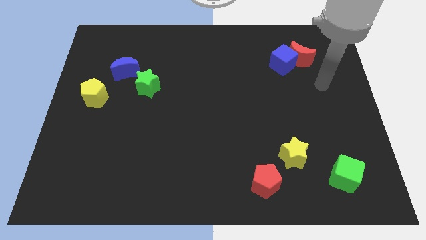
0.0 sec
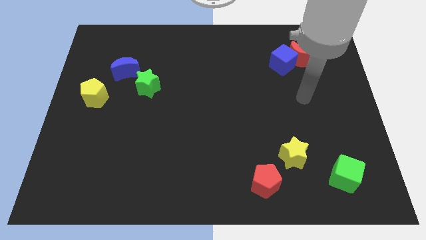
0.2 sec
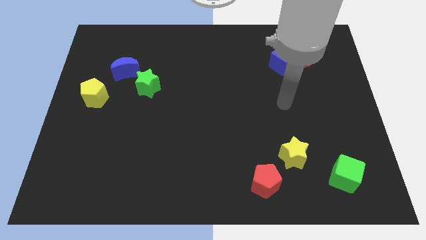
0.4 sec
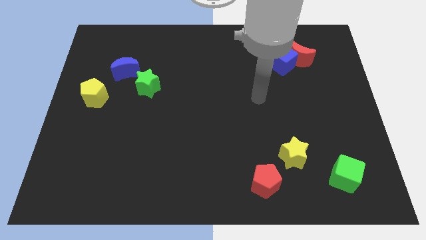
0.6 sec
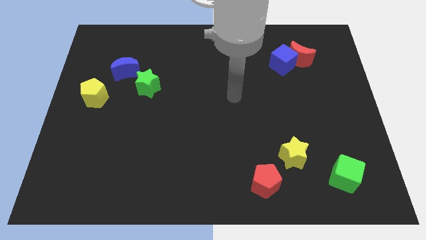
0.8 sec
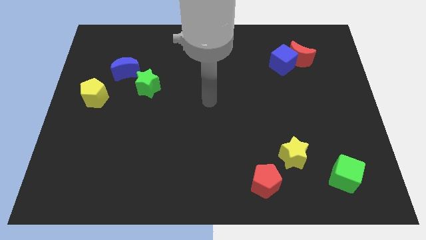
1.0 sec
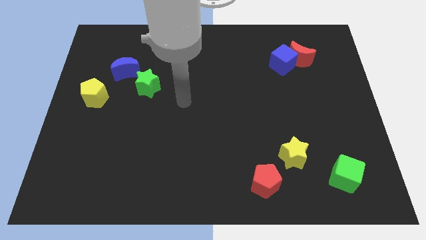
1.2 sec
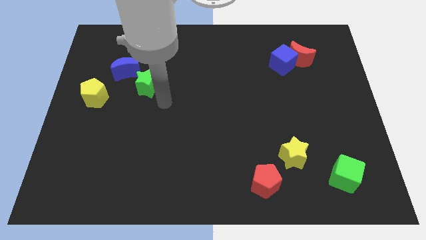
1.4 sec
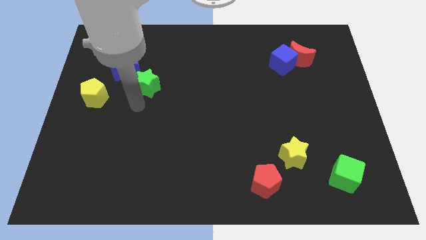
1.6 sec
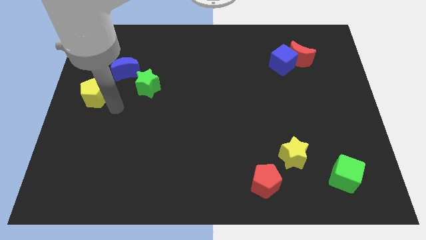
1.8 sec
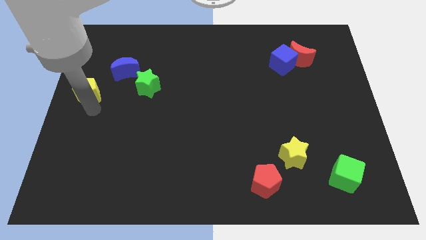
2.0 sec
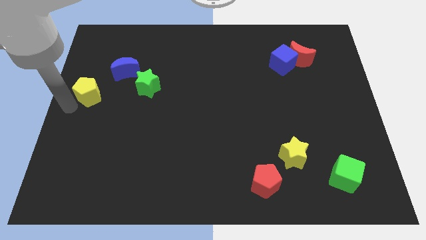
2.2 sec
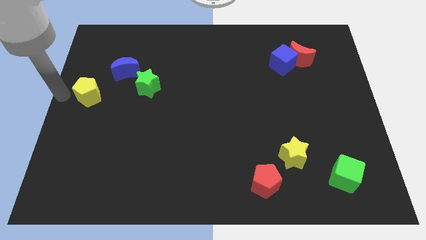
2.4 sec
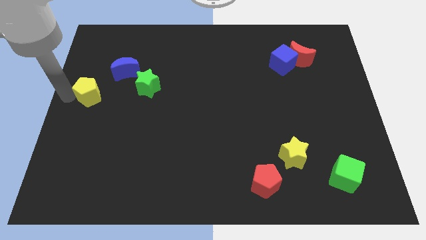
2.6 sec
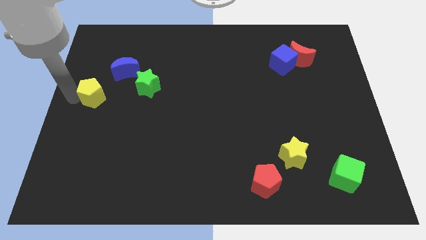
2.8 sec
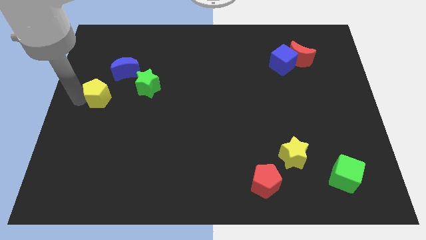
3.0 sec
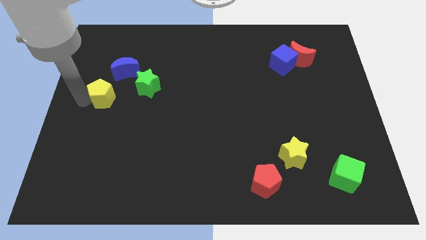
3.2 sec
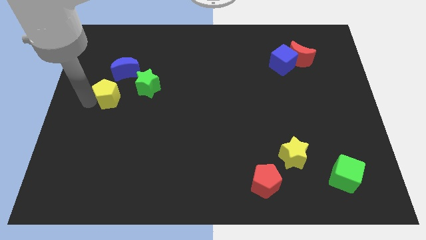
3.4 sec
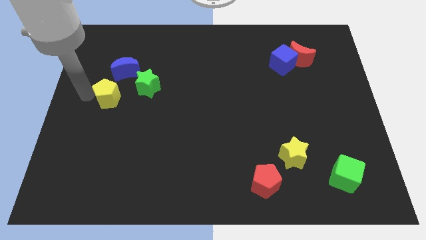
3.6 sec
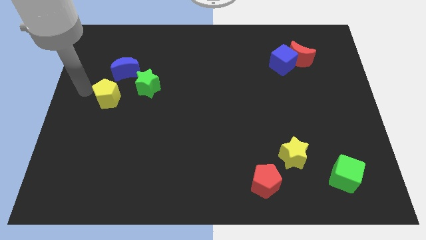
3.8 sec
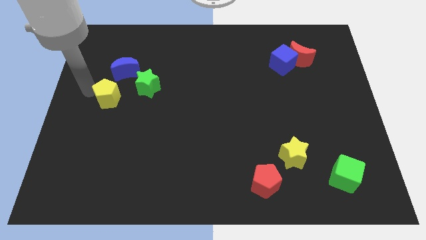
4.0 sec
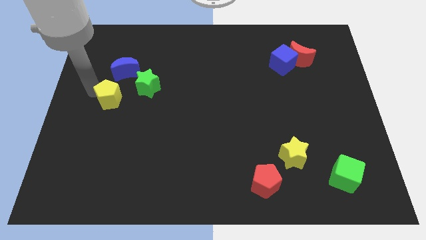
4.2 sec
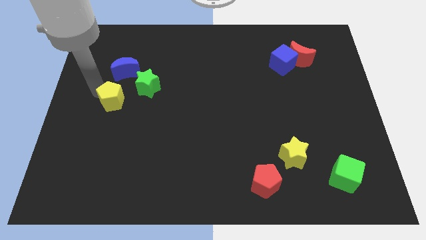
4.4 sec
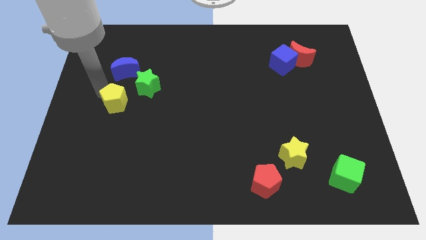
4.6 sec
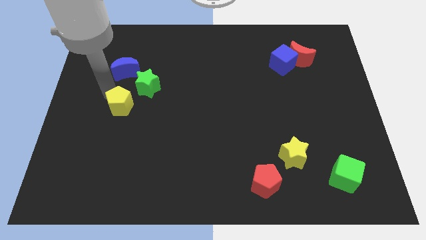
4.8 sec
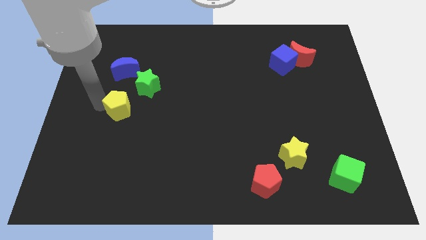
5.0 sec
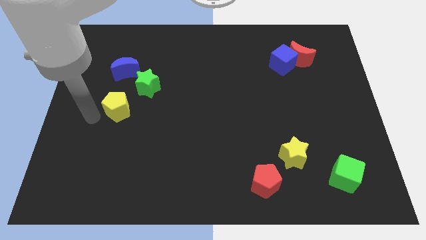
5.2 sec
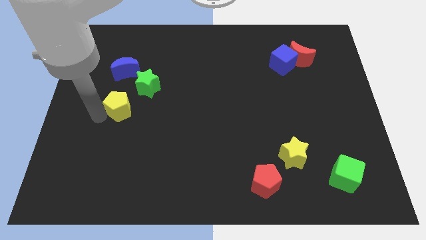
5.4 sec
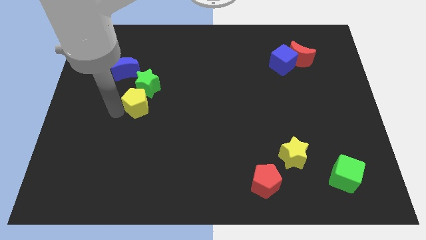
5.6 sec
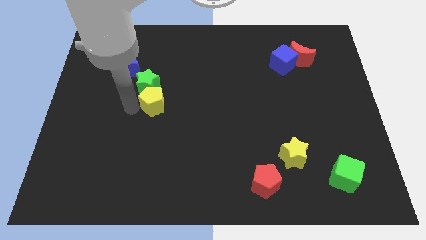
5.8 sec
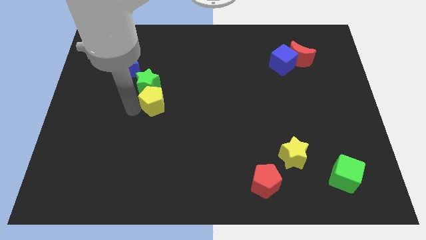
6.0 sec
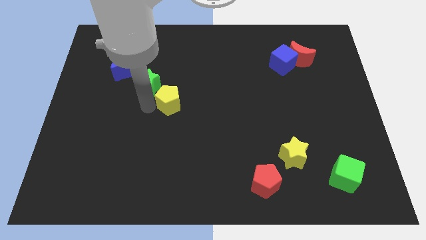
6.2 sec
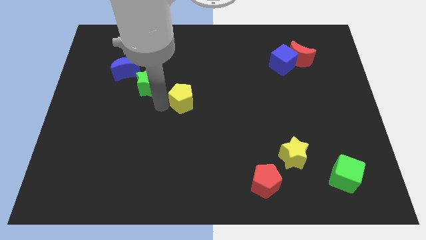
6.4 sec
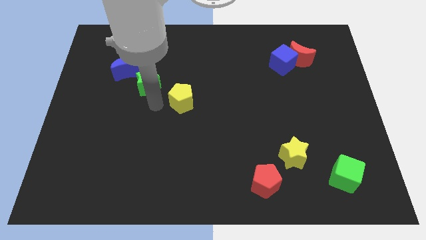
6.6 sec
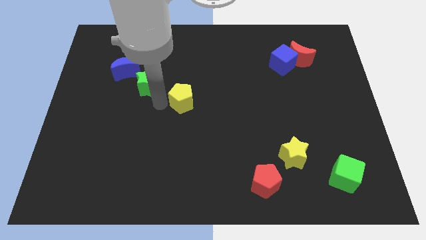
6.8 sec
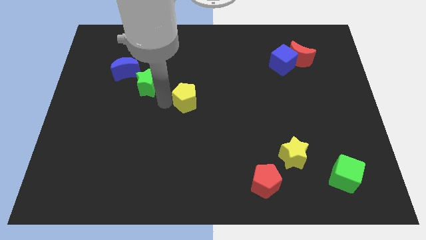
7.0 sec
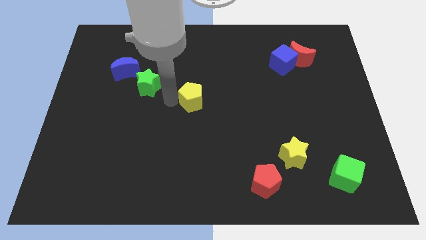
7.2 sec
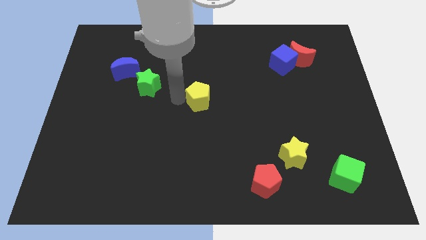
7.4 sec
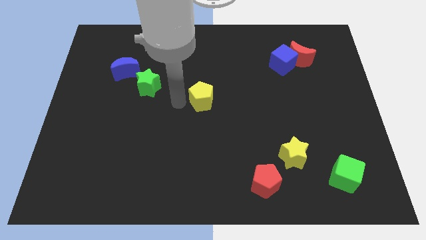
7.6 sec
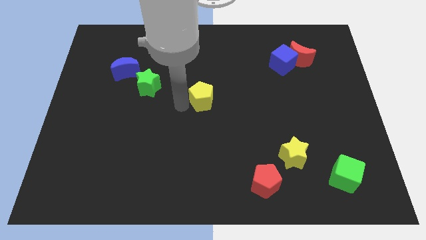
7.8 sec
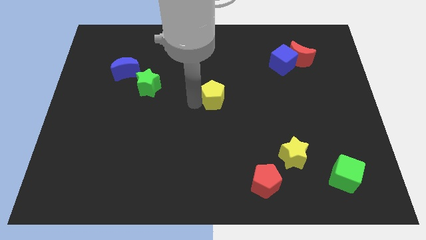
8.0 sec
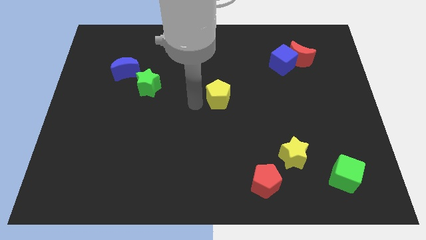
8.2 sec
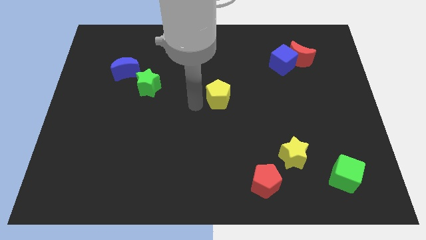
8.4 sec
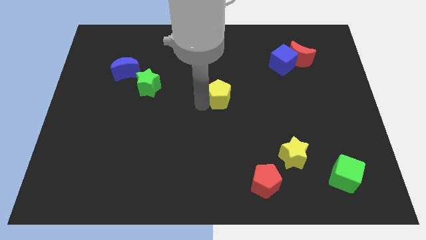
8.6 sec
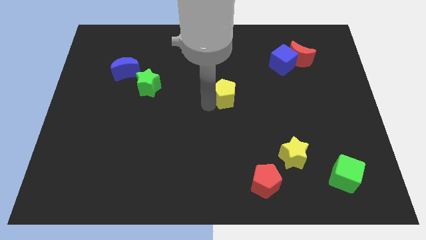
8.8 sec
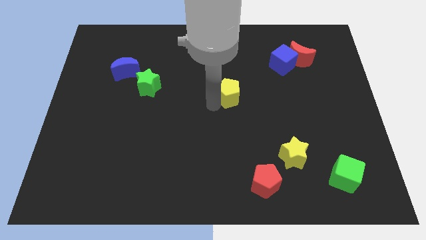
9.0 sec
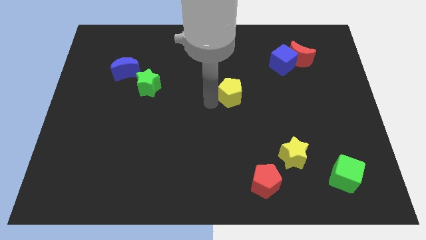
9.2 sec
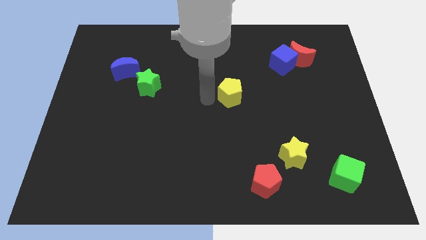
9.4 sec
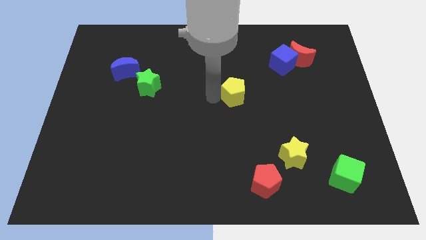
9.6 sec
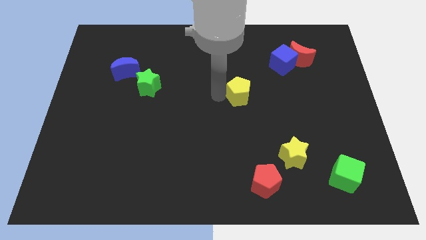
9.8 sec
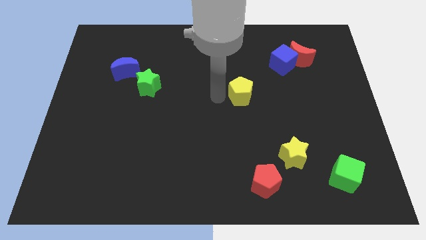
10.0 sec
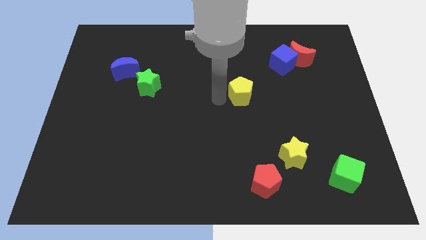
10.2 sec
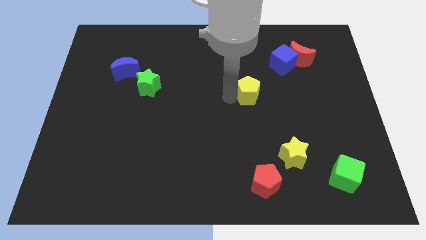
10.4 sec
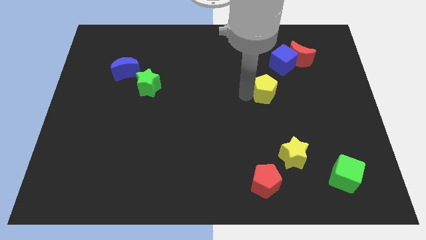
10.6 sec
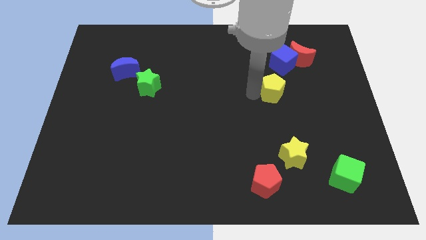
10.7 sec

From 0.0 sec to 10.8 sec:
put the yellow pentagon to the bottom side of the blue cube

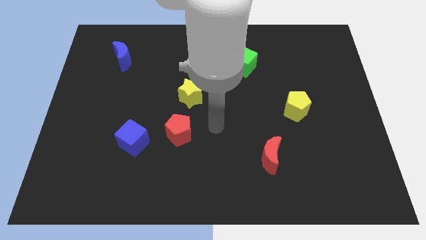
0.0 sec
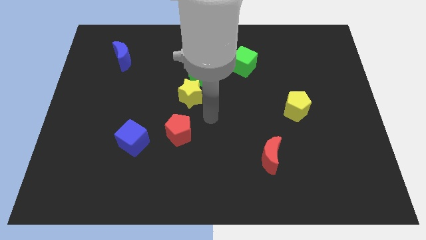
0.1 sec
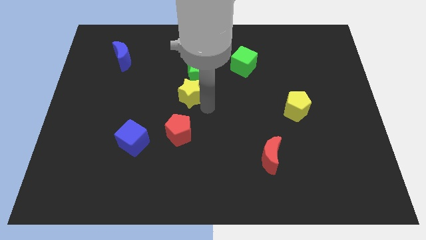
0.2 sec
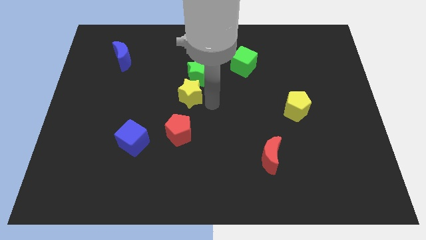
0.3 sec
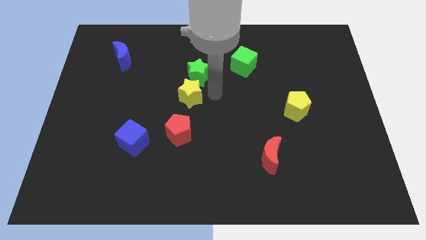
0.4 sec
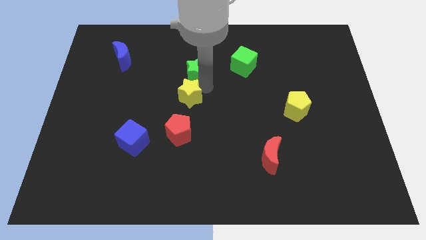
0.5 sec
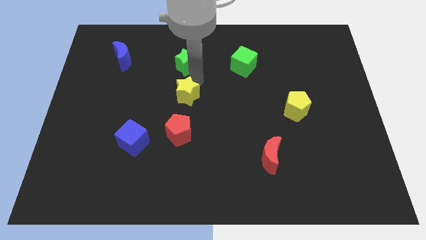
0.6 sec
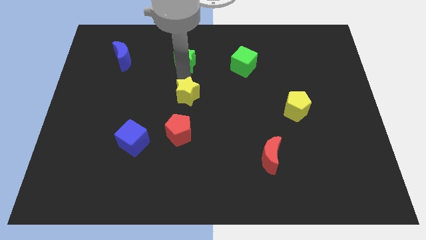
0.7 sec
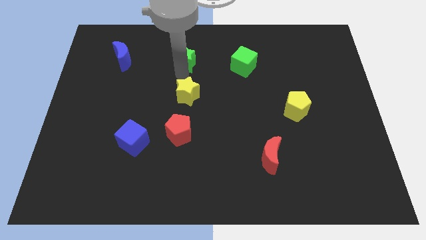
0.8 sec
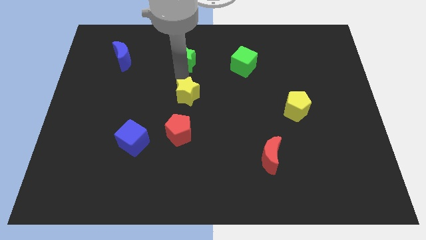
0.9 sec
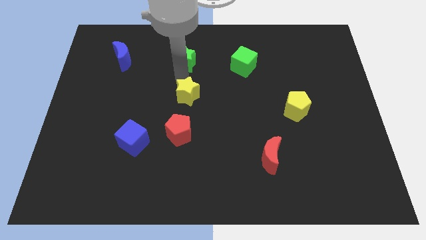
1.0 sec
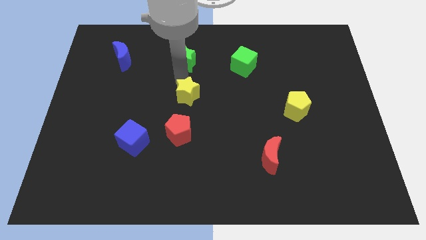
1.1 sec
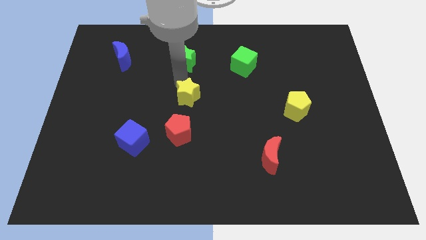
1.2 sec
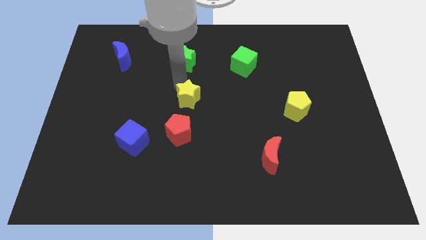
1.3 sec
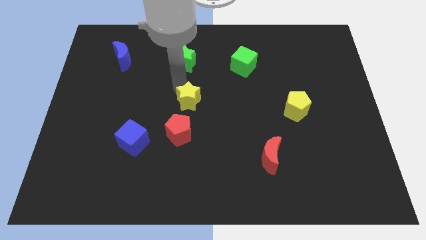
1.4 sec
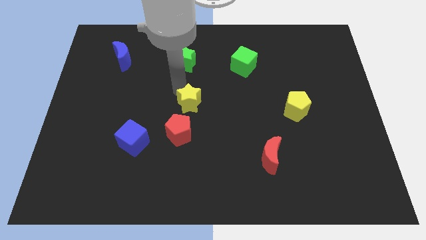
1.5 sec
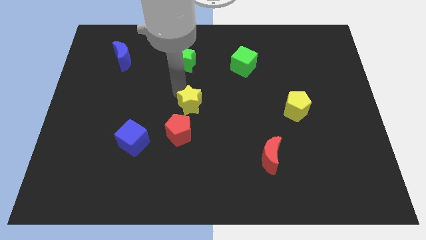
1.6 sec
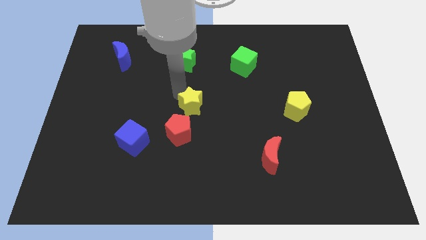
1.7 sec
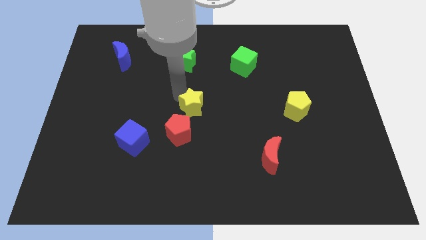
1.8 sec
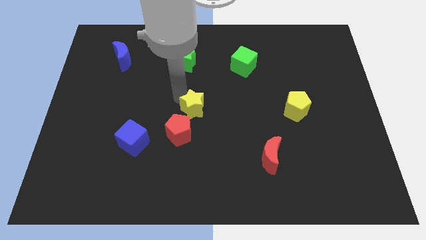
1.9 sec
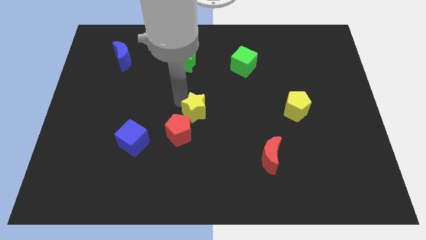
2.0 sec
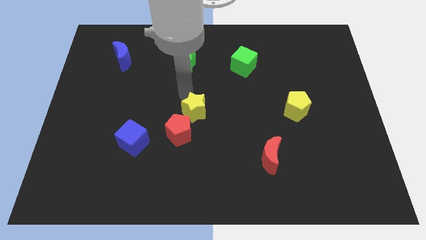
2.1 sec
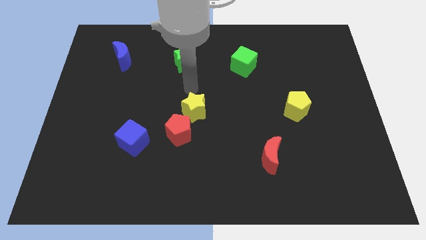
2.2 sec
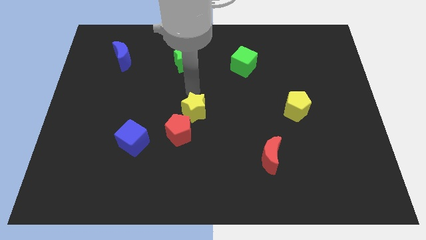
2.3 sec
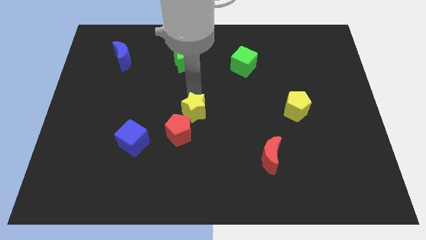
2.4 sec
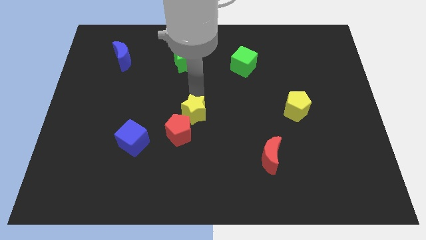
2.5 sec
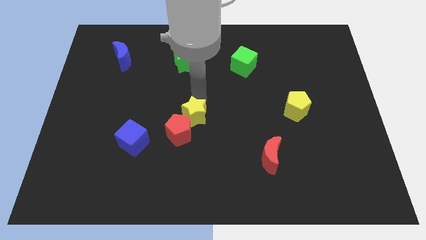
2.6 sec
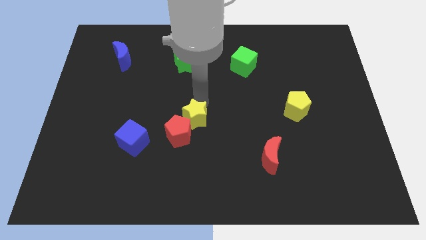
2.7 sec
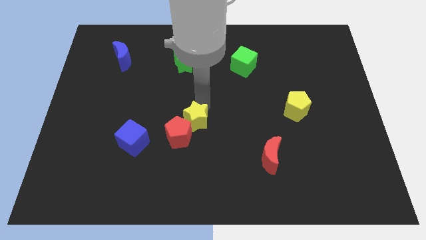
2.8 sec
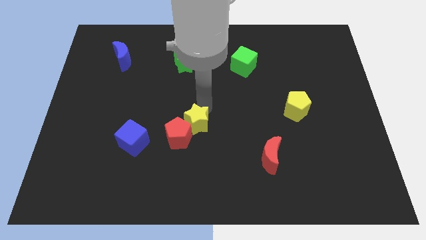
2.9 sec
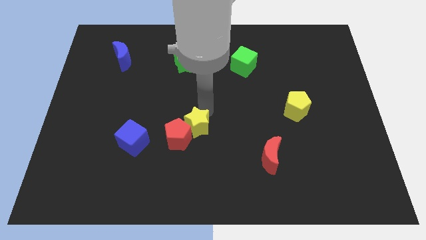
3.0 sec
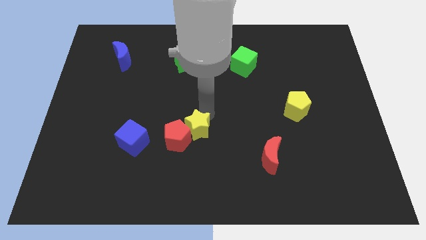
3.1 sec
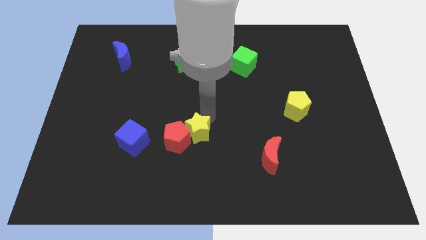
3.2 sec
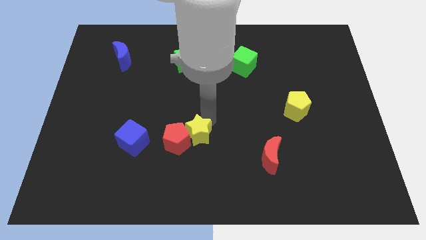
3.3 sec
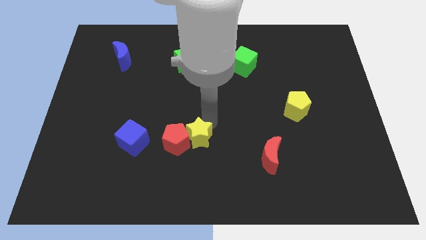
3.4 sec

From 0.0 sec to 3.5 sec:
push the yellow star to the bottom right of the red pentagon
